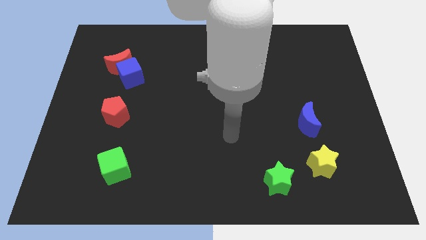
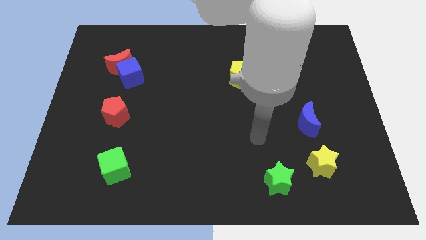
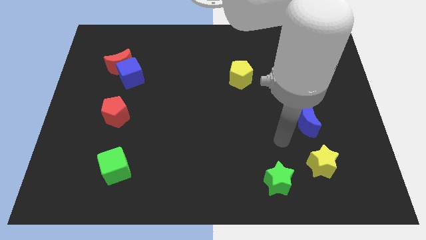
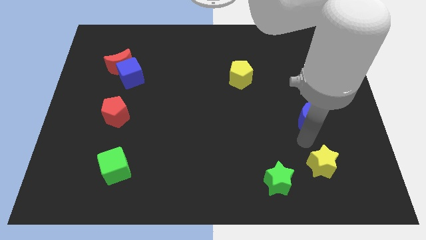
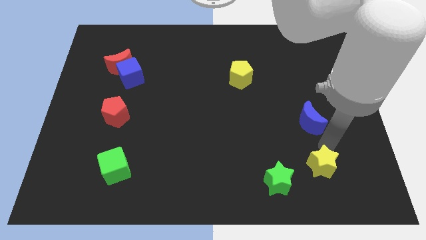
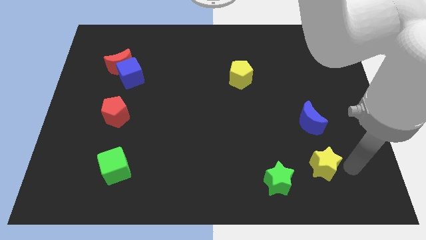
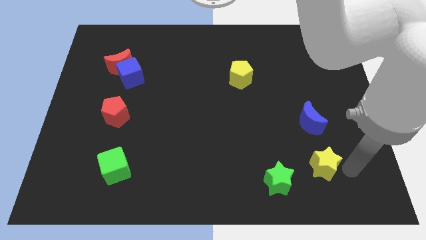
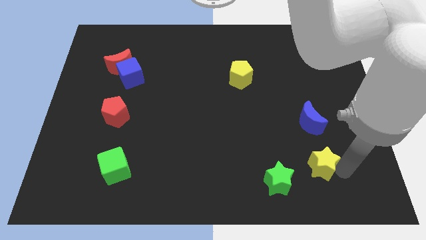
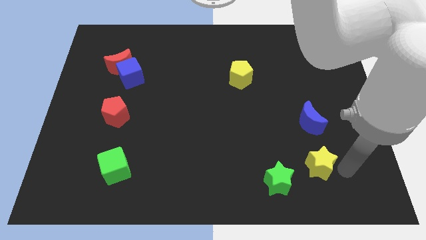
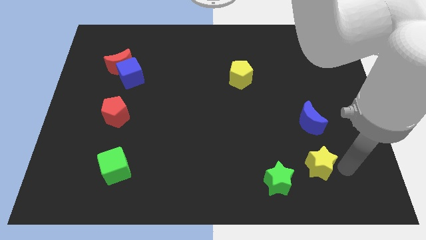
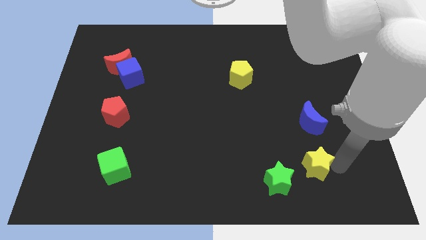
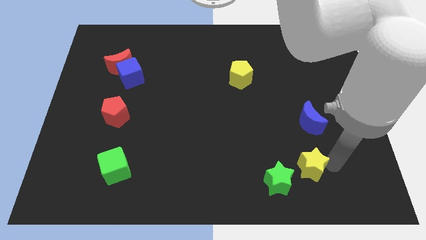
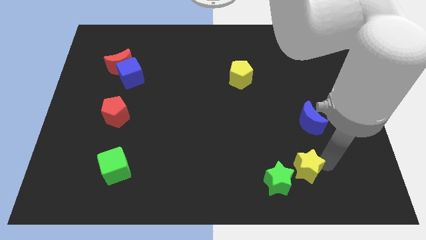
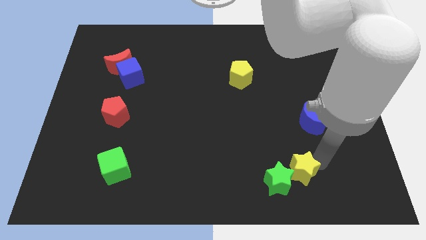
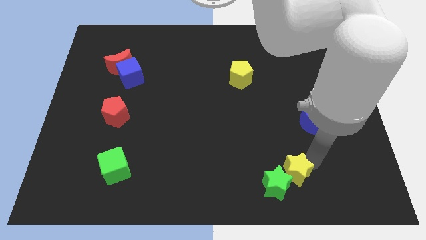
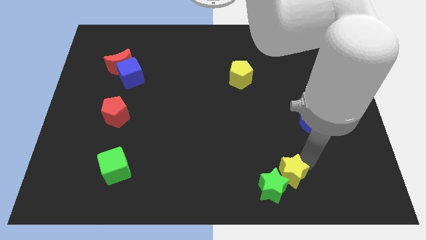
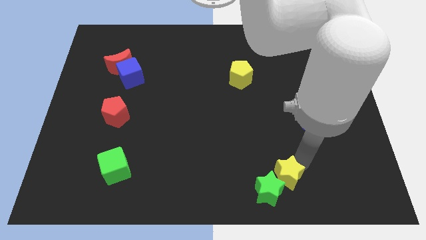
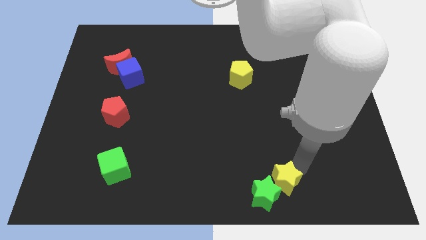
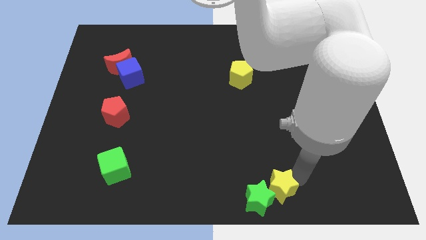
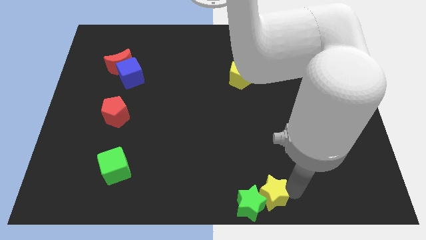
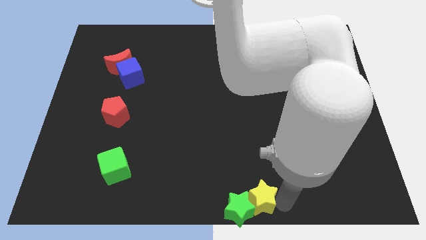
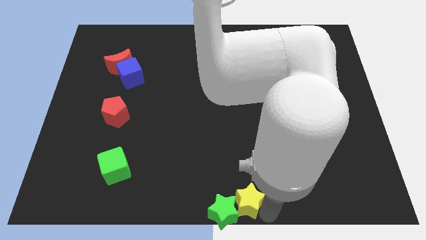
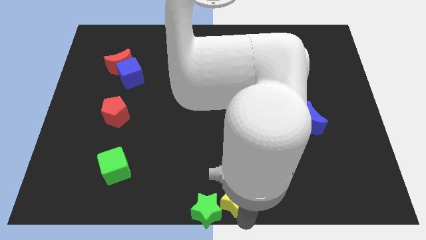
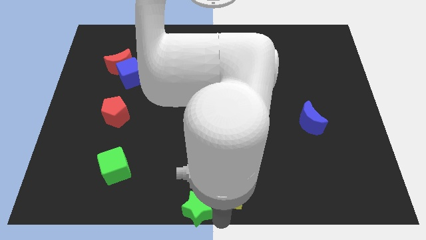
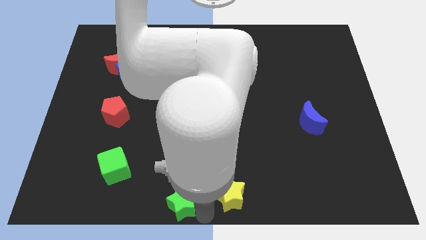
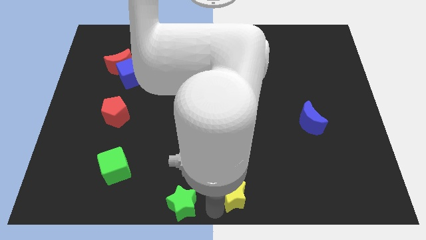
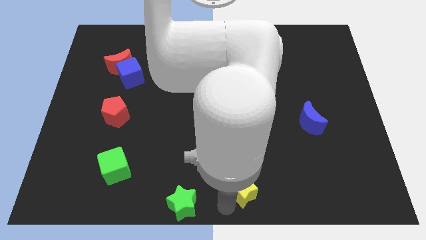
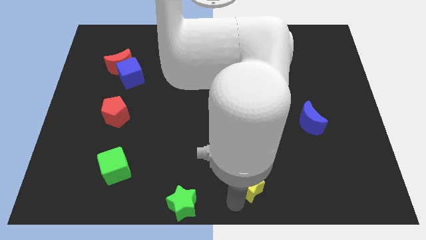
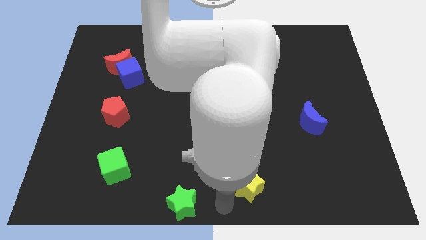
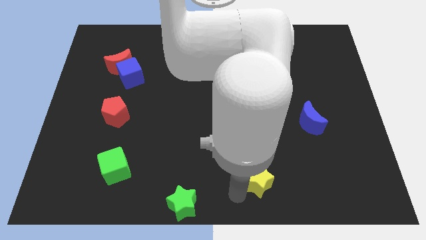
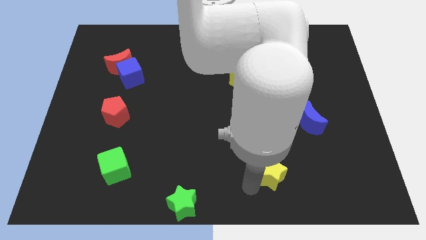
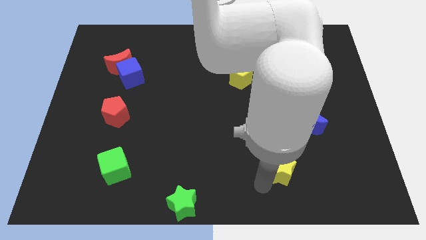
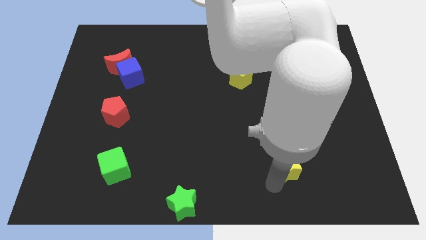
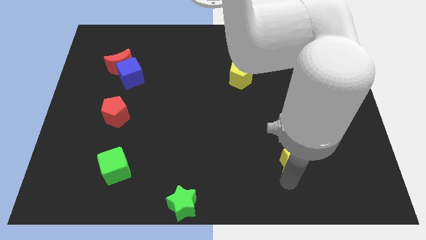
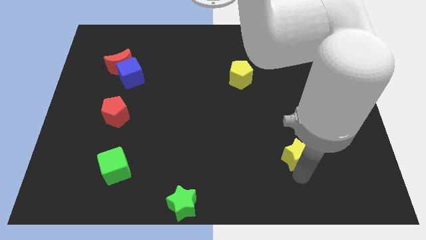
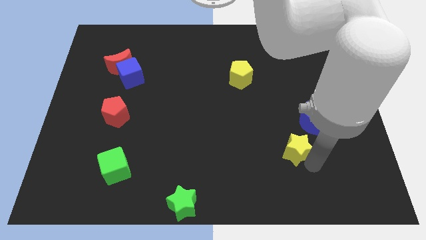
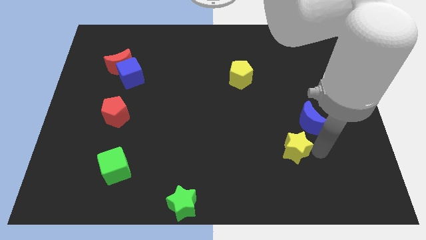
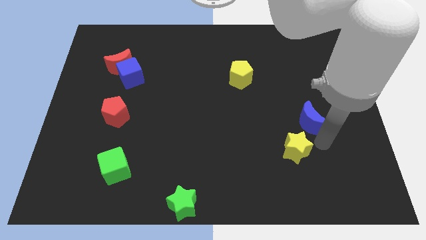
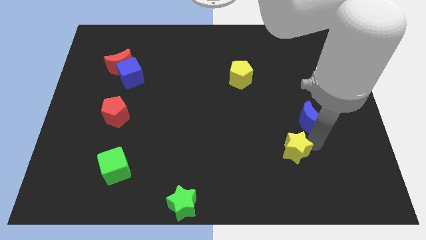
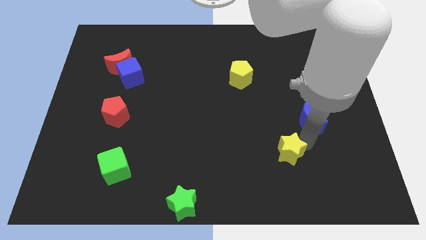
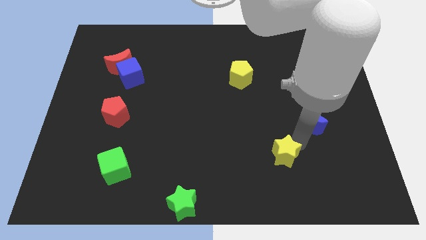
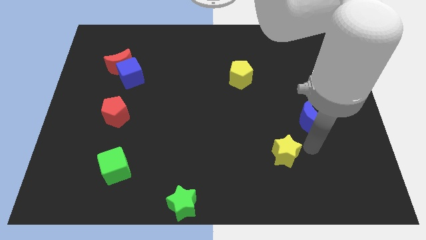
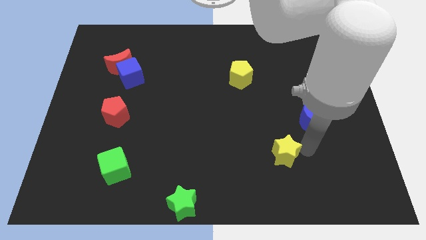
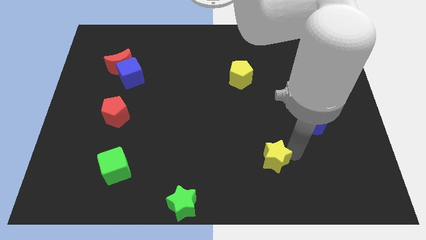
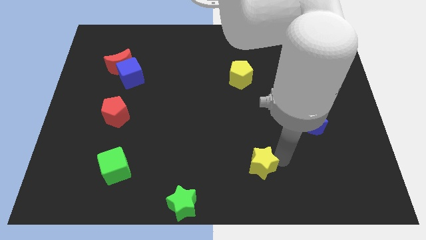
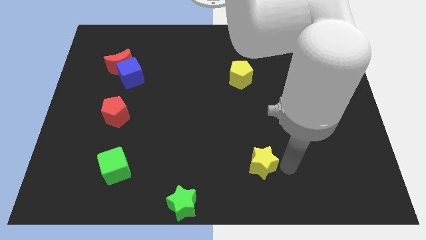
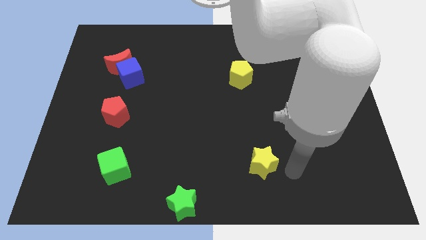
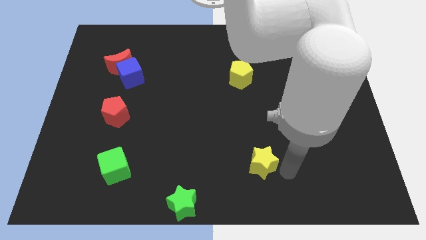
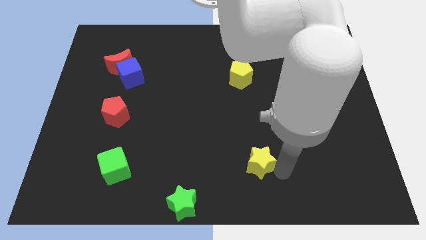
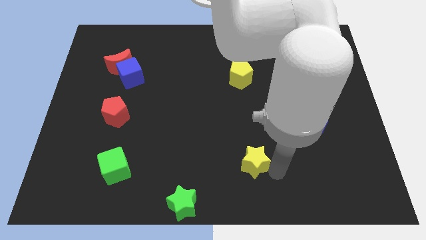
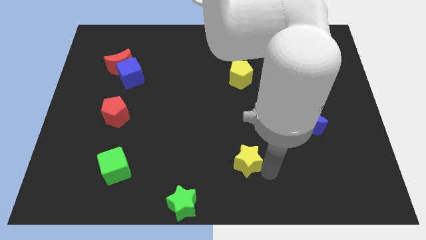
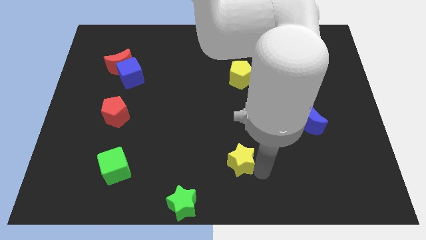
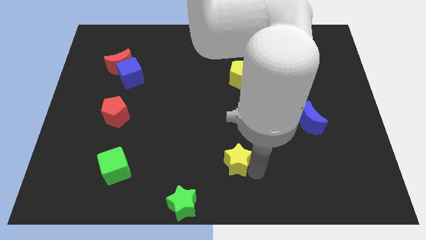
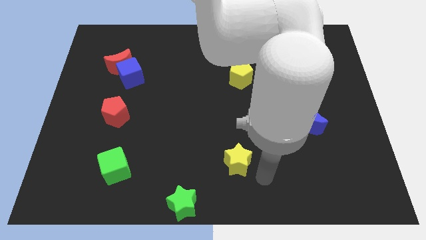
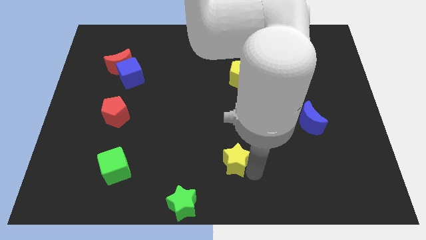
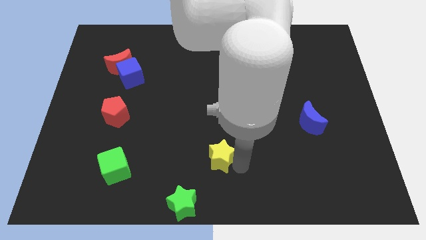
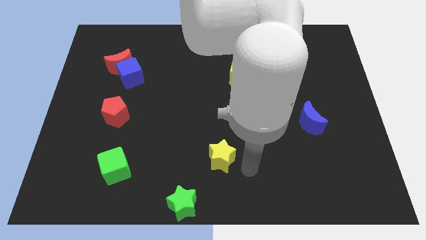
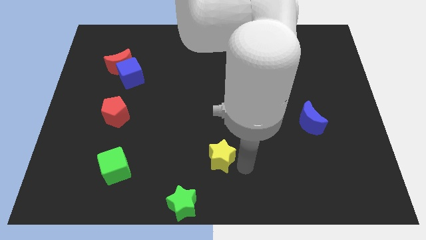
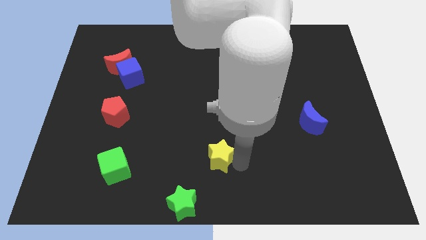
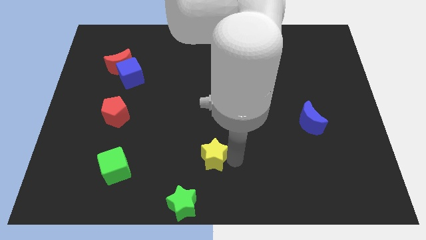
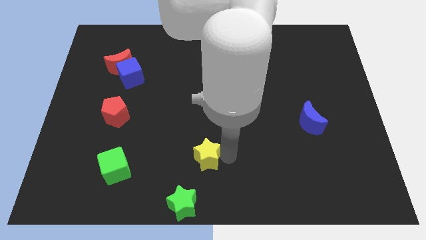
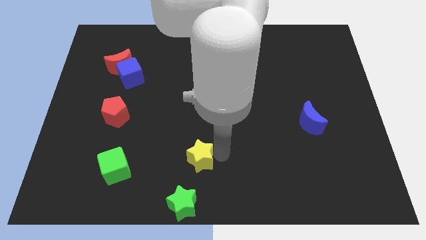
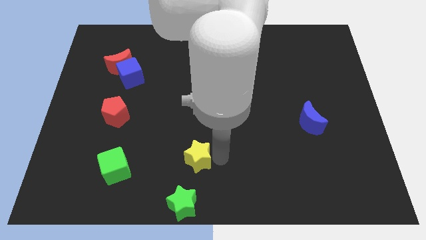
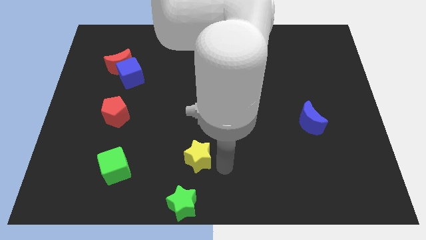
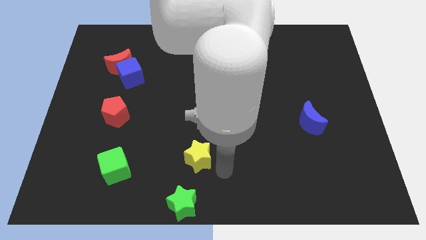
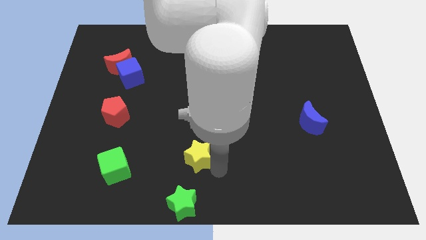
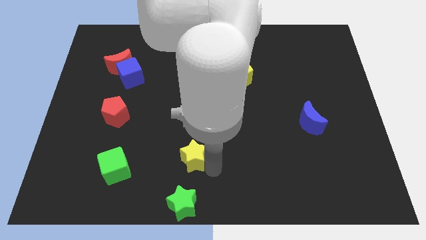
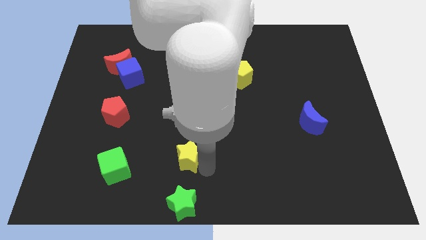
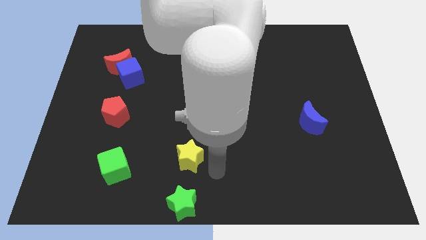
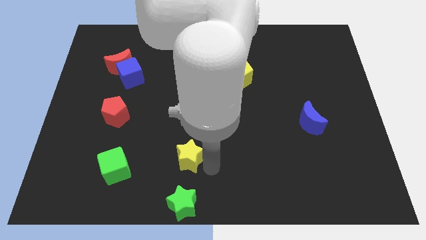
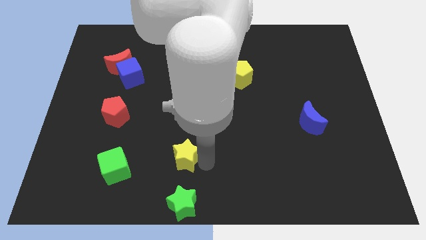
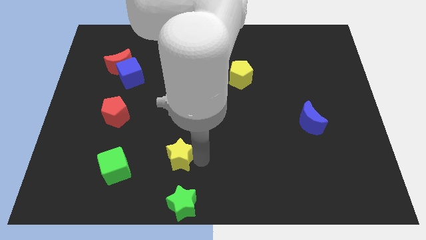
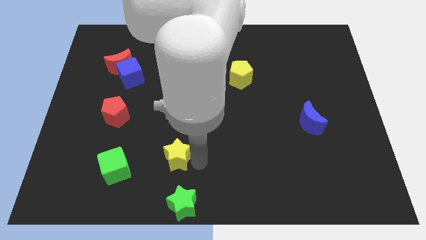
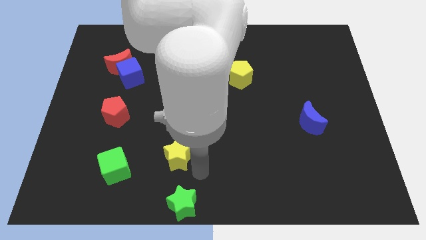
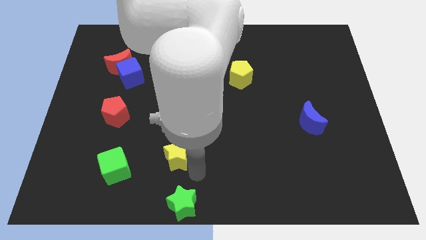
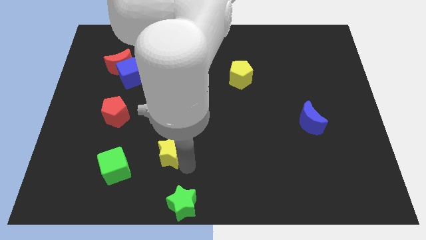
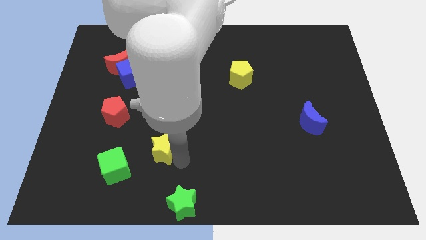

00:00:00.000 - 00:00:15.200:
slide the yellow star diagonally up and to the right of the green cube
